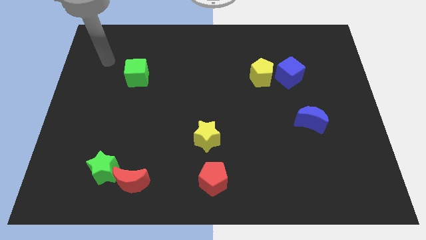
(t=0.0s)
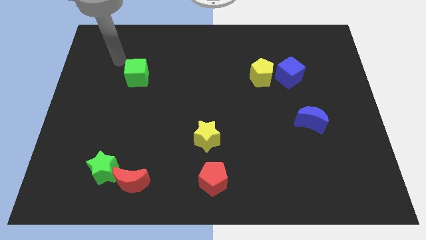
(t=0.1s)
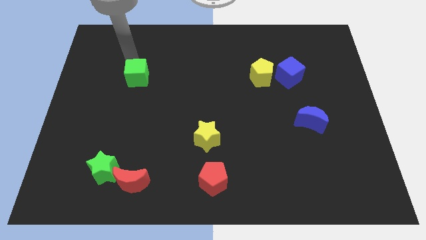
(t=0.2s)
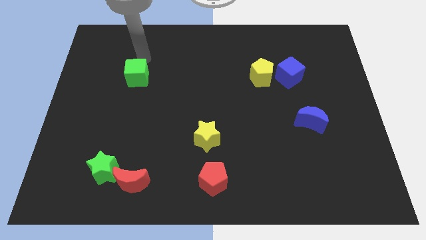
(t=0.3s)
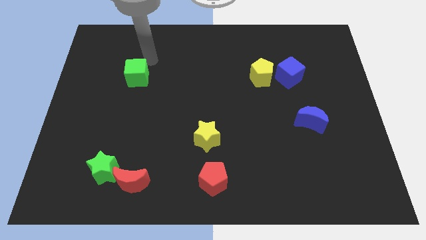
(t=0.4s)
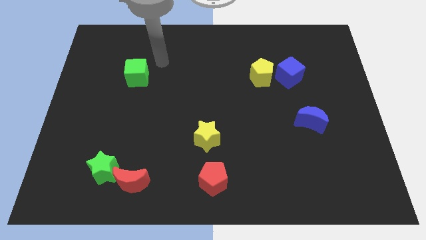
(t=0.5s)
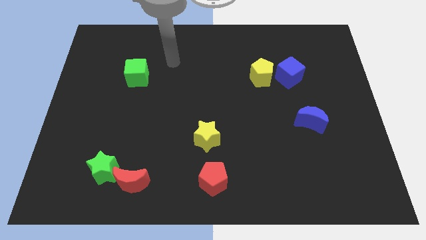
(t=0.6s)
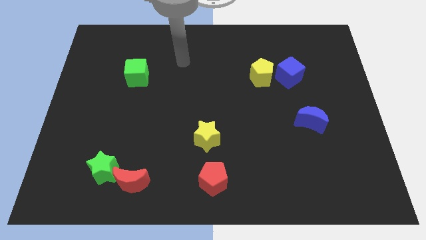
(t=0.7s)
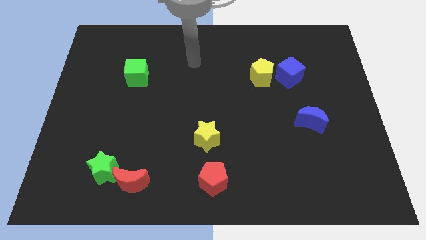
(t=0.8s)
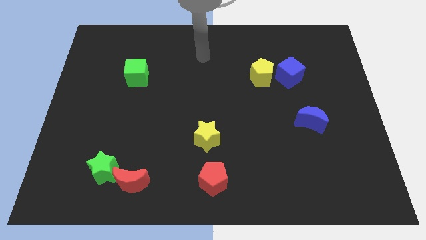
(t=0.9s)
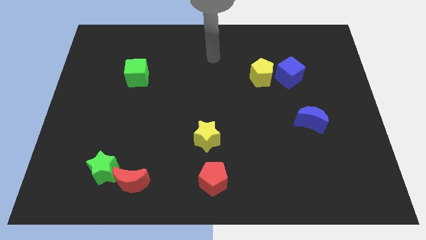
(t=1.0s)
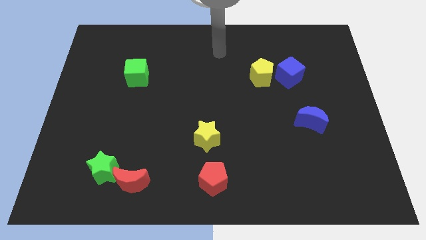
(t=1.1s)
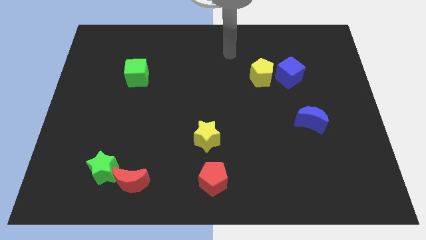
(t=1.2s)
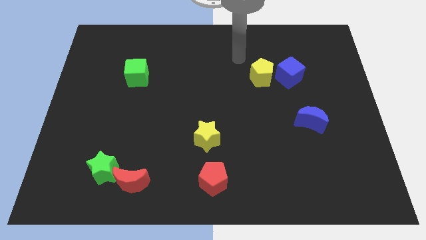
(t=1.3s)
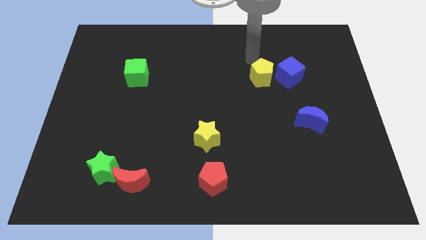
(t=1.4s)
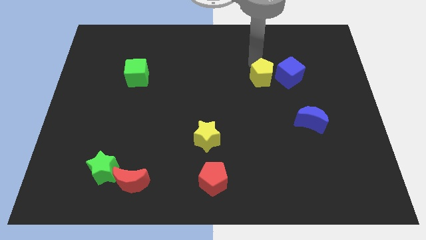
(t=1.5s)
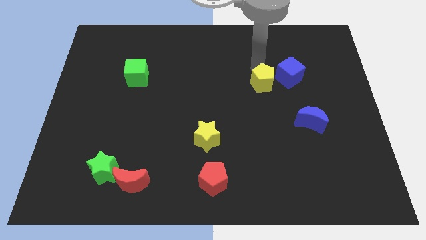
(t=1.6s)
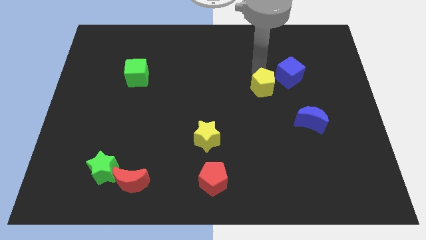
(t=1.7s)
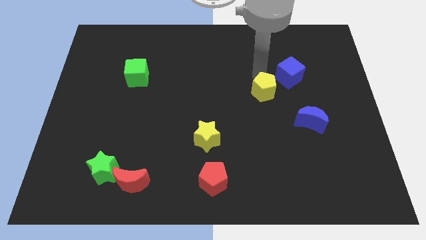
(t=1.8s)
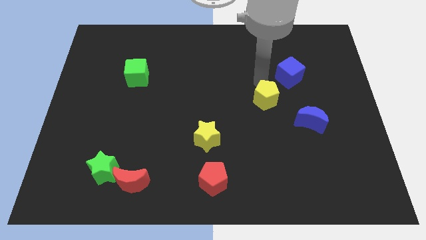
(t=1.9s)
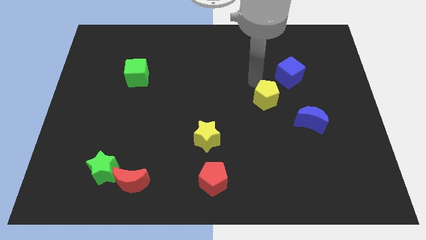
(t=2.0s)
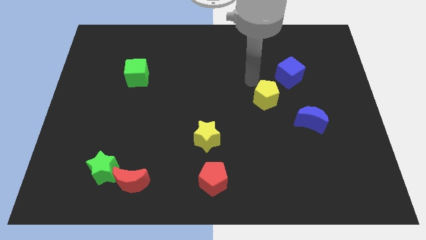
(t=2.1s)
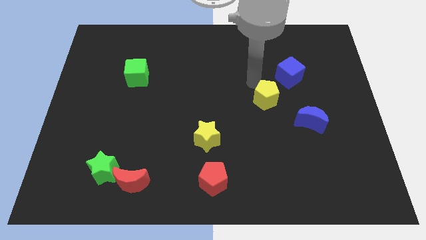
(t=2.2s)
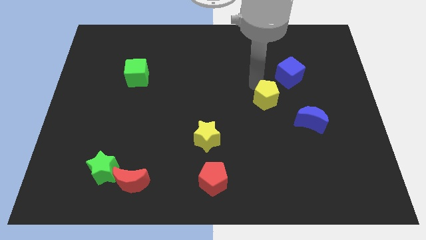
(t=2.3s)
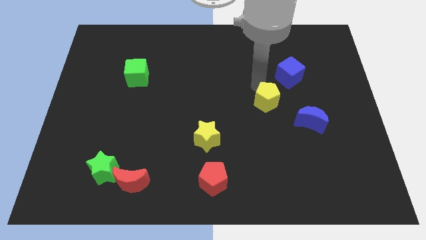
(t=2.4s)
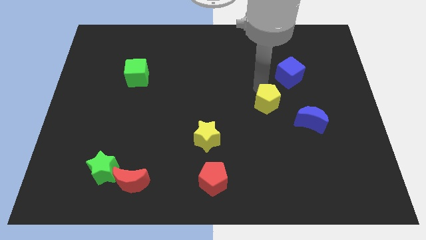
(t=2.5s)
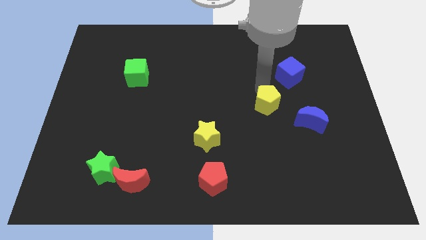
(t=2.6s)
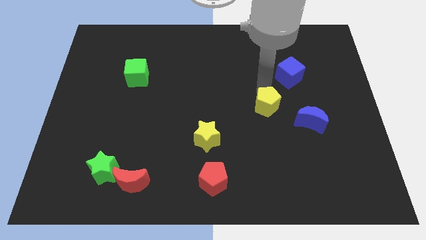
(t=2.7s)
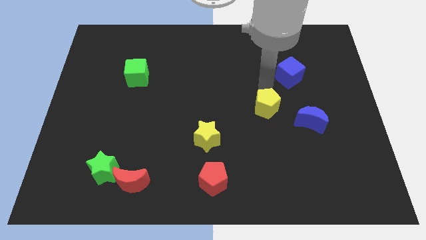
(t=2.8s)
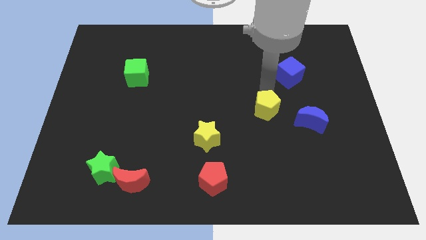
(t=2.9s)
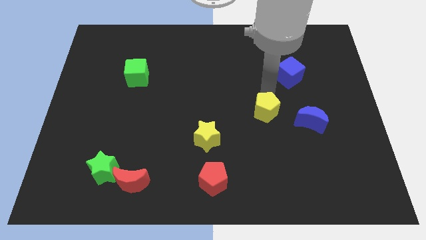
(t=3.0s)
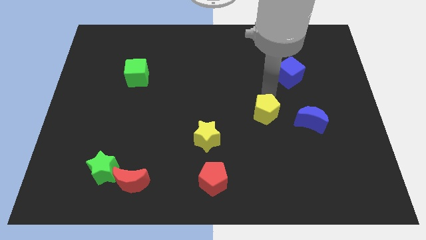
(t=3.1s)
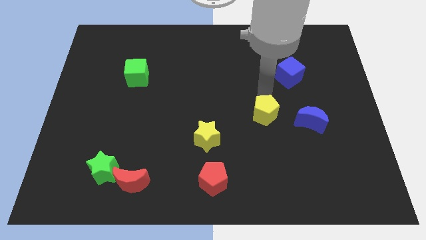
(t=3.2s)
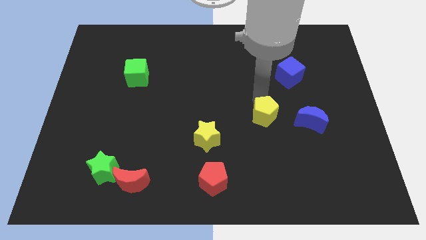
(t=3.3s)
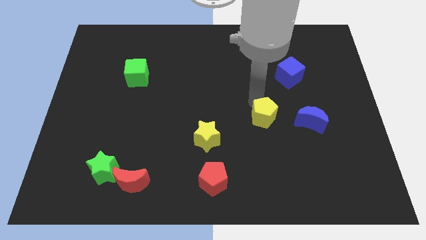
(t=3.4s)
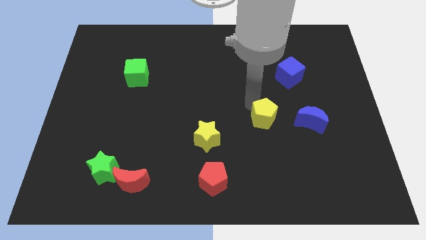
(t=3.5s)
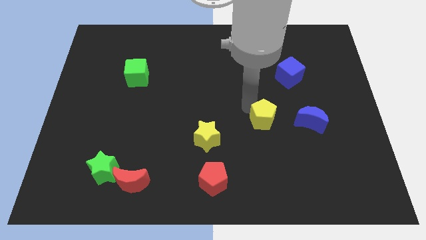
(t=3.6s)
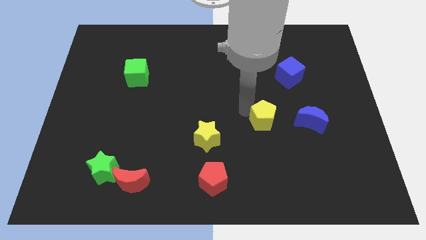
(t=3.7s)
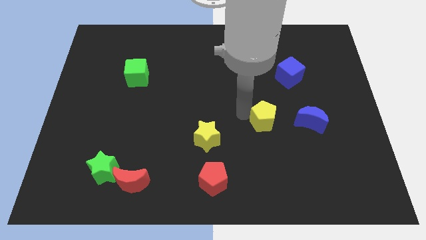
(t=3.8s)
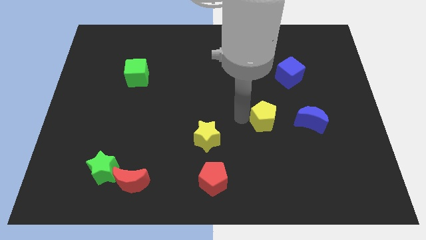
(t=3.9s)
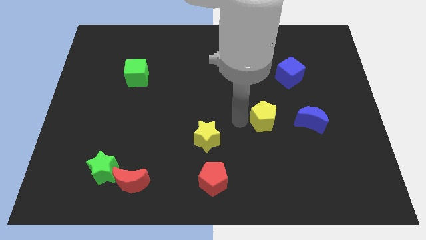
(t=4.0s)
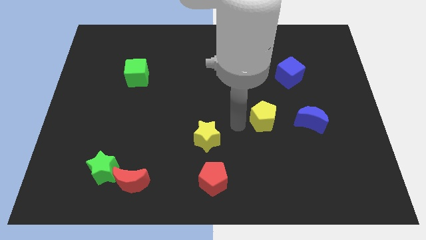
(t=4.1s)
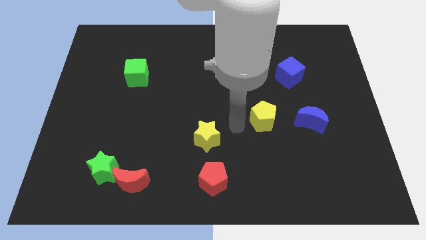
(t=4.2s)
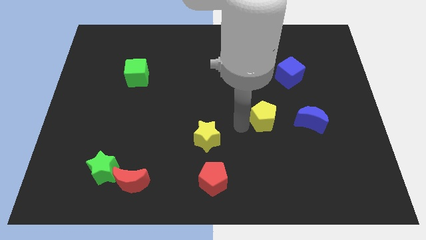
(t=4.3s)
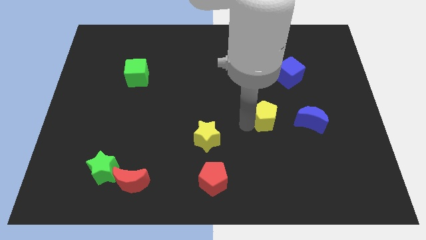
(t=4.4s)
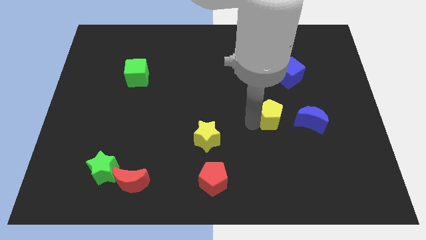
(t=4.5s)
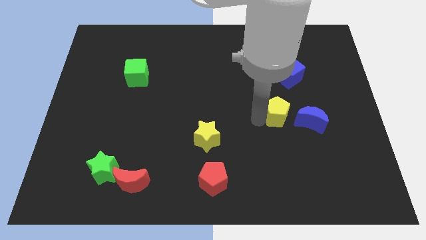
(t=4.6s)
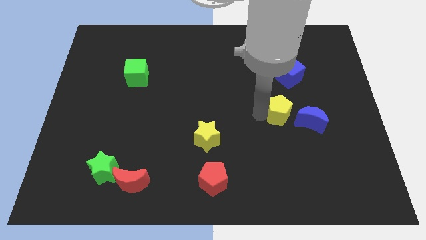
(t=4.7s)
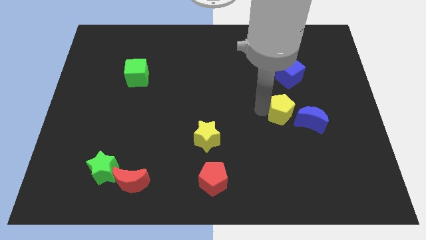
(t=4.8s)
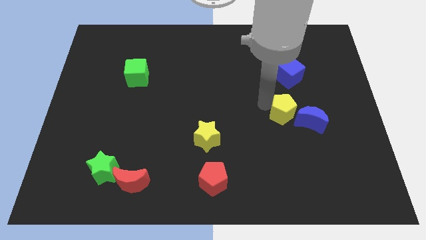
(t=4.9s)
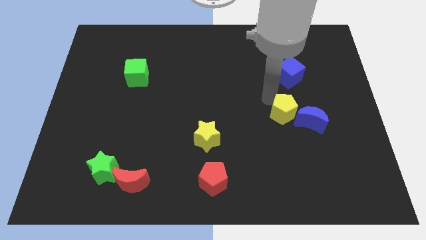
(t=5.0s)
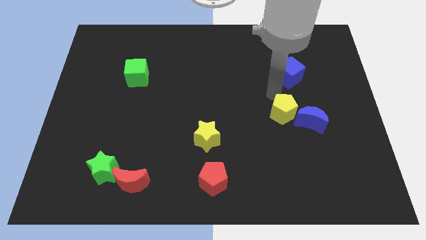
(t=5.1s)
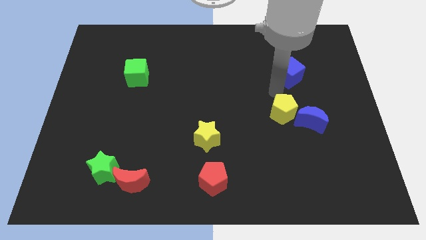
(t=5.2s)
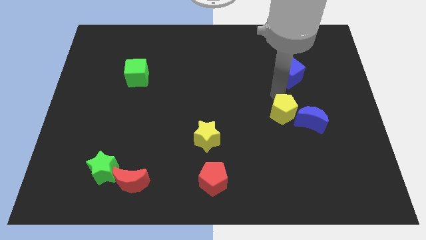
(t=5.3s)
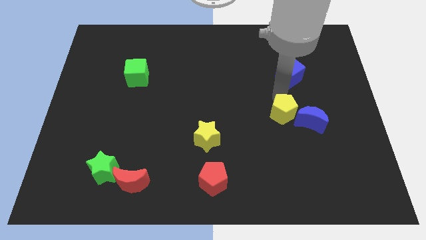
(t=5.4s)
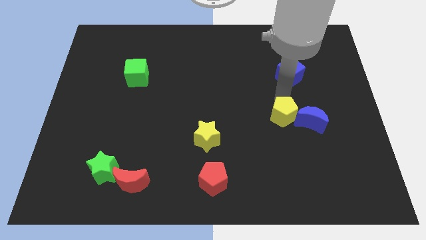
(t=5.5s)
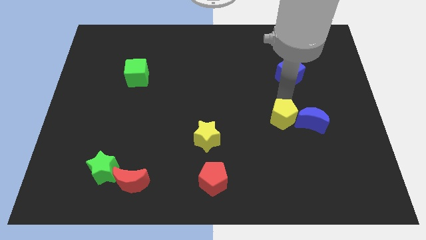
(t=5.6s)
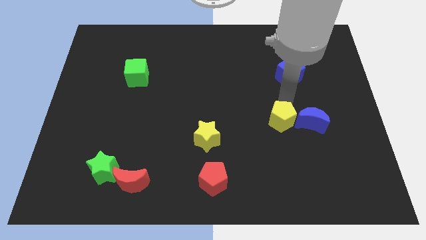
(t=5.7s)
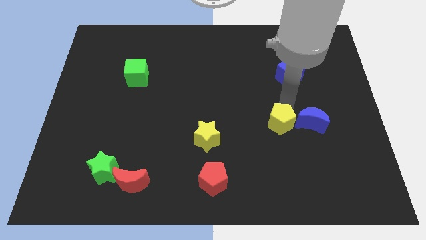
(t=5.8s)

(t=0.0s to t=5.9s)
push the yellow pentagon to the bottom left of the blue moon

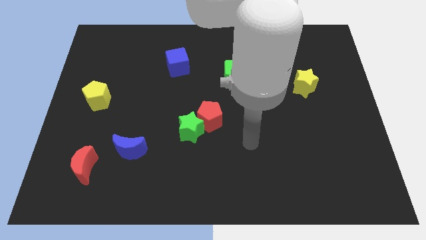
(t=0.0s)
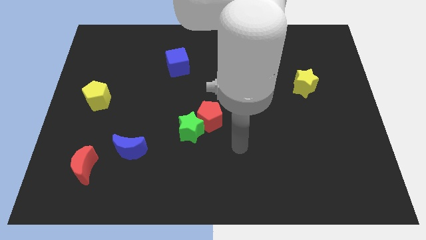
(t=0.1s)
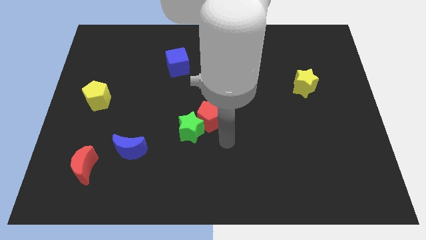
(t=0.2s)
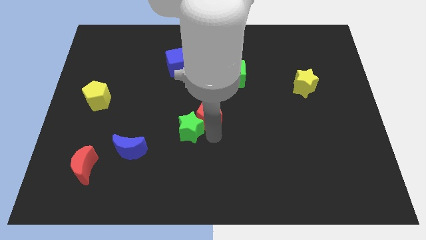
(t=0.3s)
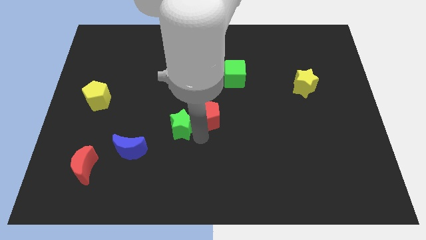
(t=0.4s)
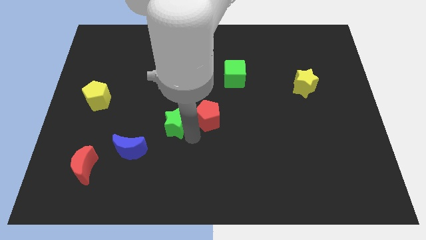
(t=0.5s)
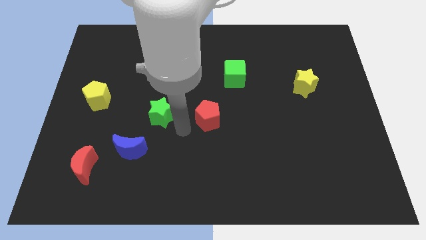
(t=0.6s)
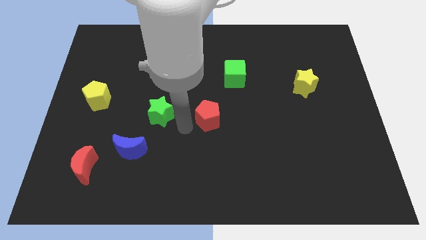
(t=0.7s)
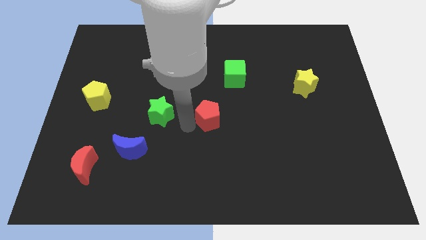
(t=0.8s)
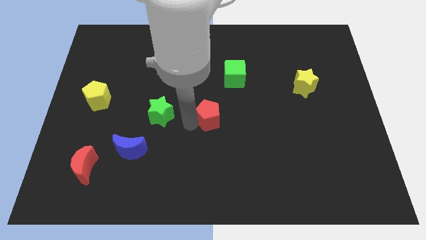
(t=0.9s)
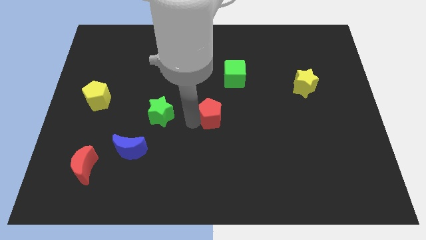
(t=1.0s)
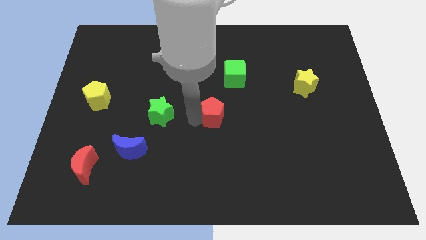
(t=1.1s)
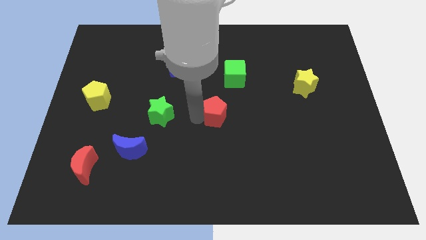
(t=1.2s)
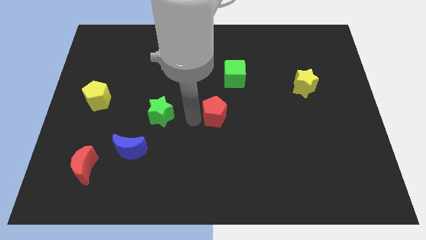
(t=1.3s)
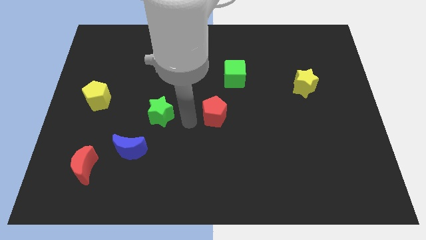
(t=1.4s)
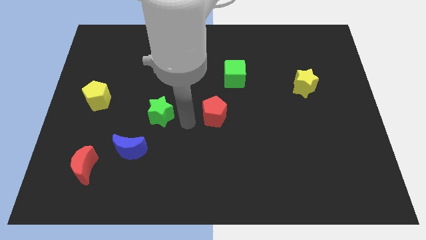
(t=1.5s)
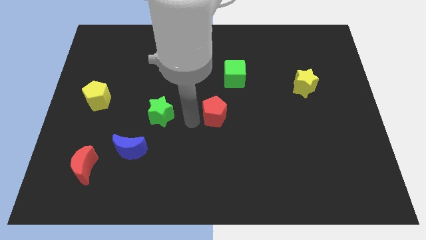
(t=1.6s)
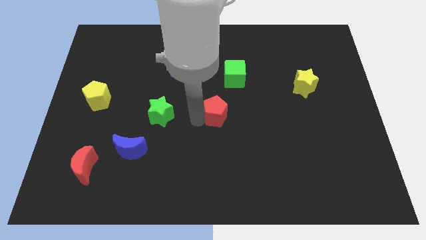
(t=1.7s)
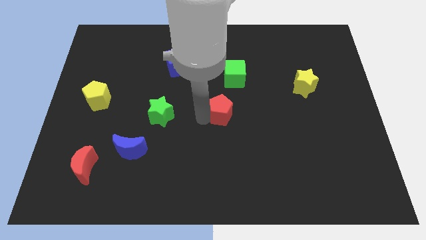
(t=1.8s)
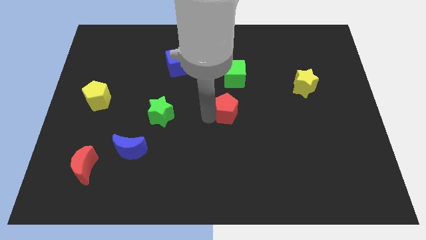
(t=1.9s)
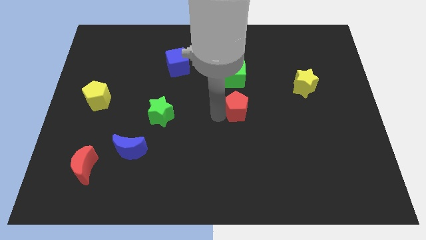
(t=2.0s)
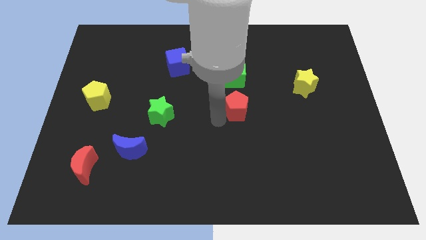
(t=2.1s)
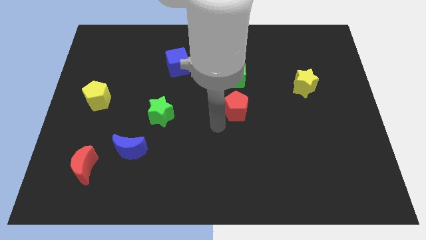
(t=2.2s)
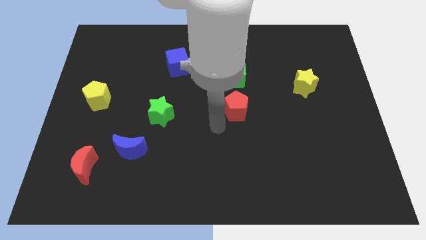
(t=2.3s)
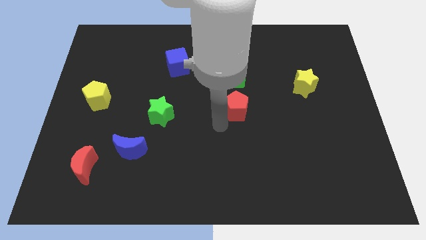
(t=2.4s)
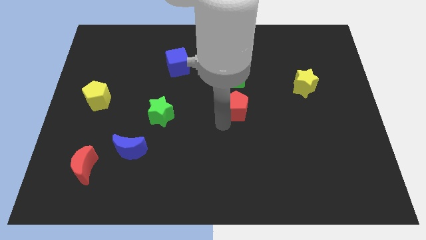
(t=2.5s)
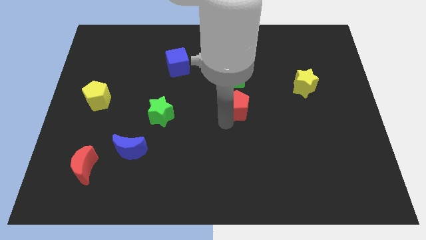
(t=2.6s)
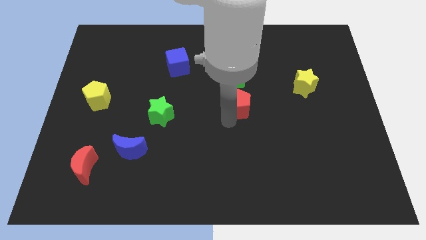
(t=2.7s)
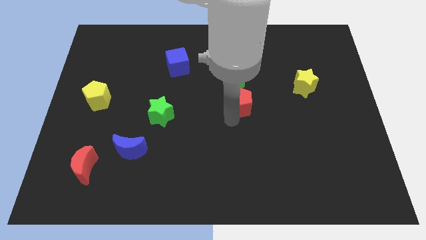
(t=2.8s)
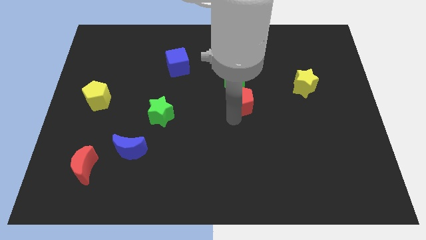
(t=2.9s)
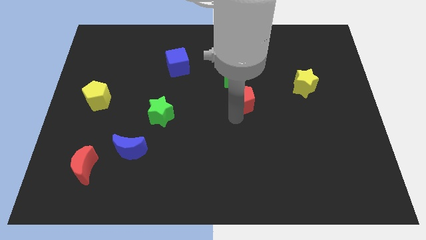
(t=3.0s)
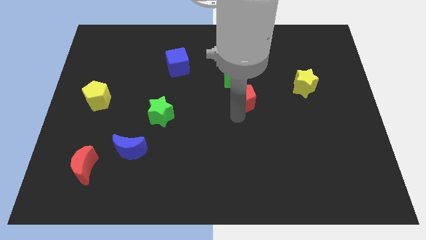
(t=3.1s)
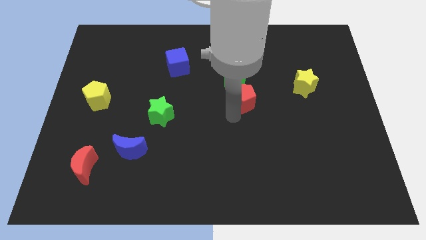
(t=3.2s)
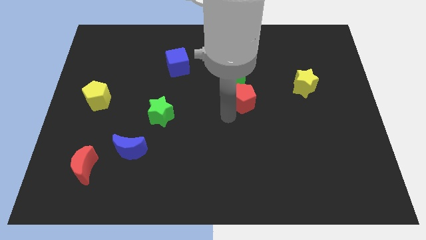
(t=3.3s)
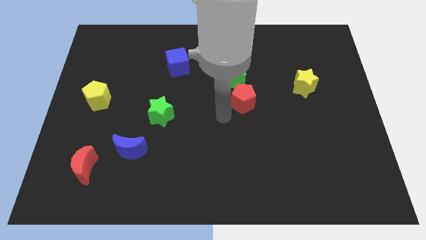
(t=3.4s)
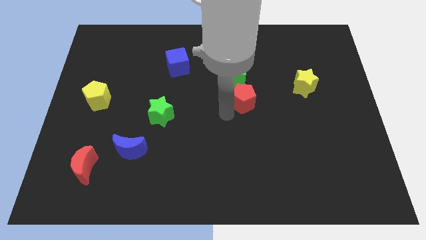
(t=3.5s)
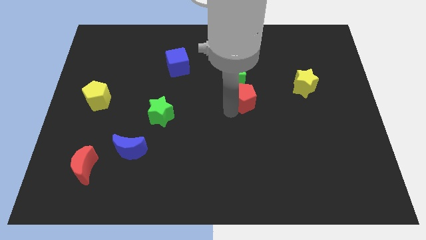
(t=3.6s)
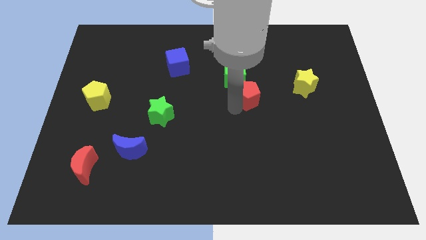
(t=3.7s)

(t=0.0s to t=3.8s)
slide the red pentagon to the left side of the yellow star
